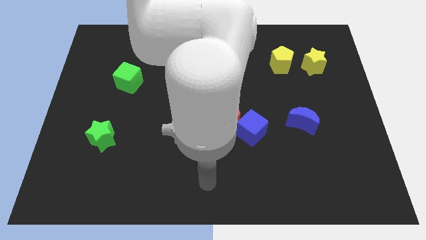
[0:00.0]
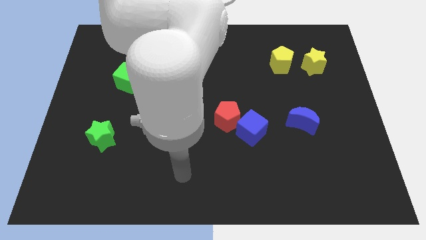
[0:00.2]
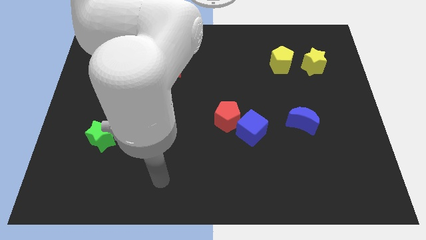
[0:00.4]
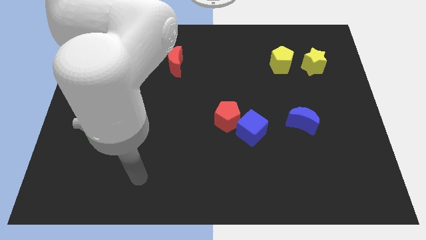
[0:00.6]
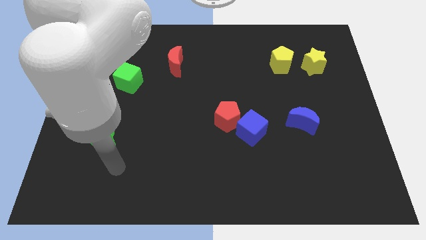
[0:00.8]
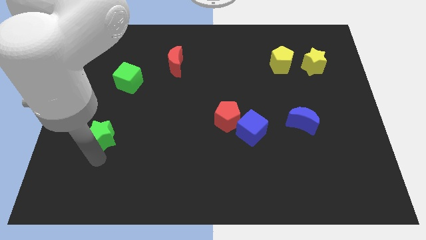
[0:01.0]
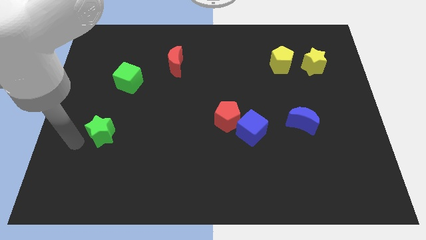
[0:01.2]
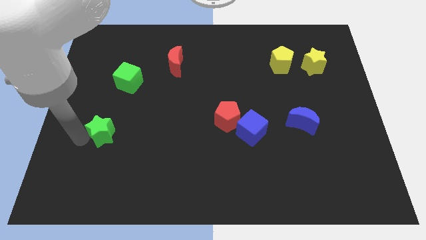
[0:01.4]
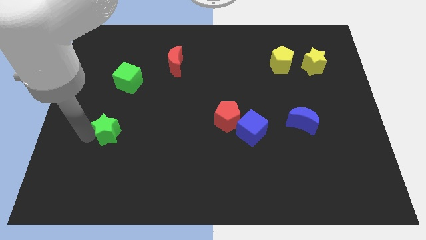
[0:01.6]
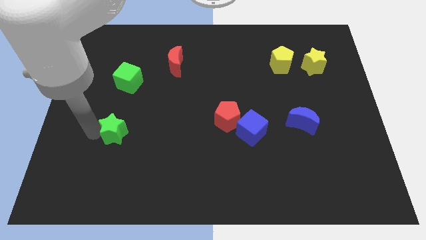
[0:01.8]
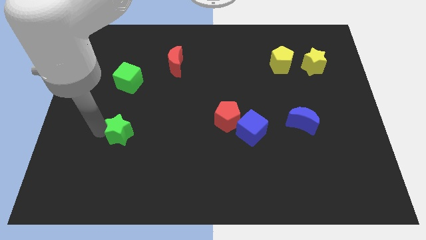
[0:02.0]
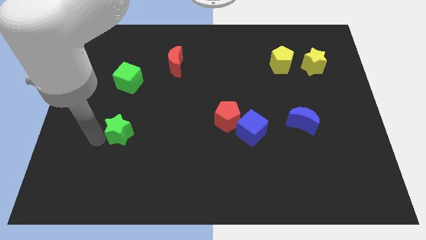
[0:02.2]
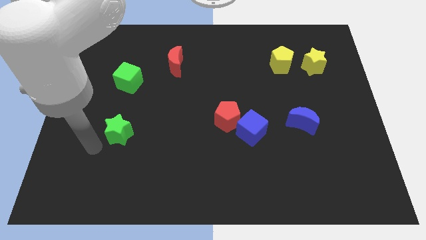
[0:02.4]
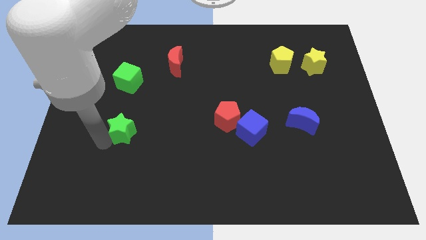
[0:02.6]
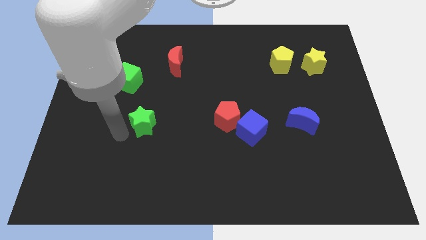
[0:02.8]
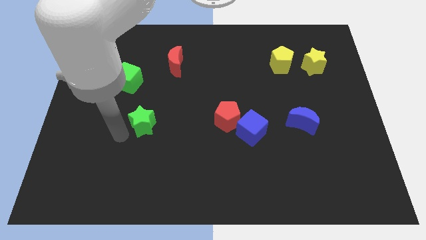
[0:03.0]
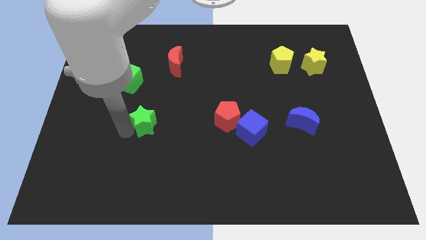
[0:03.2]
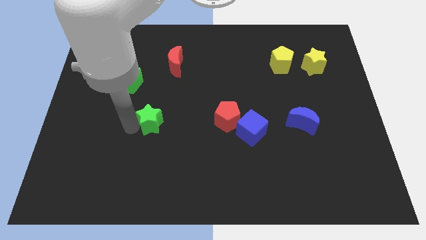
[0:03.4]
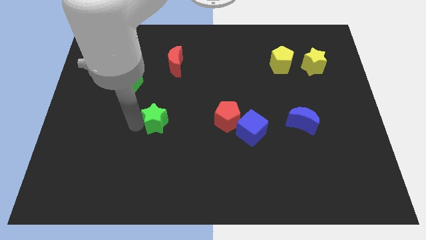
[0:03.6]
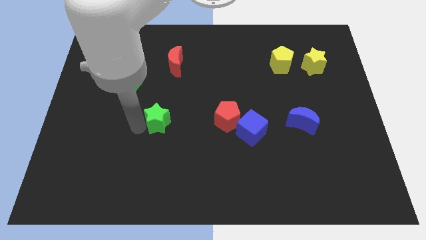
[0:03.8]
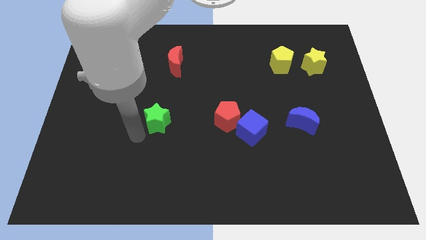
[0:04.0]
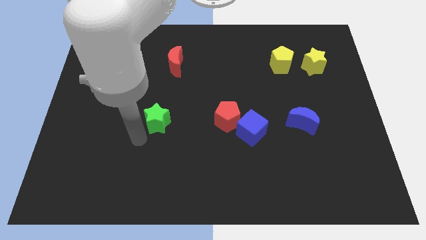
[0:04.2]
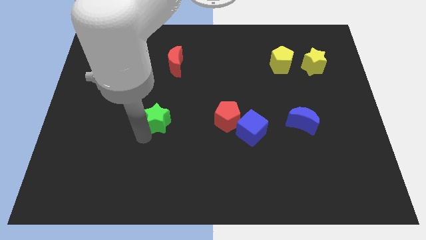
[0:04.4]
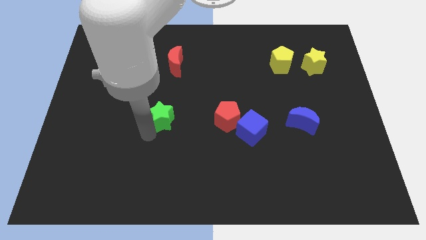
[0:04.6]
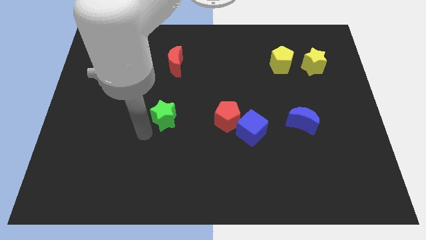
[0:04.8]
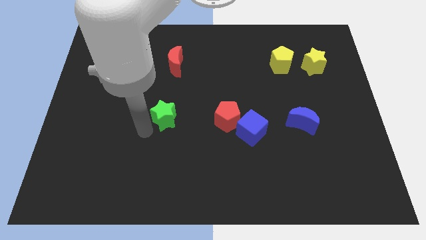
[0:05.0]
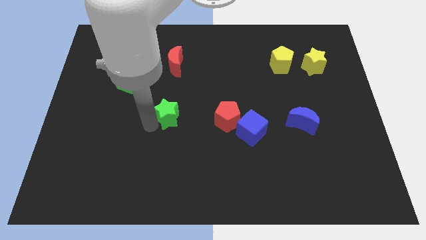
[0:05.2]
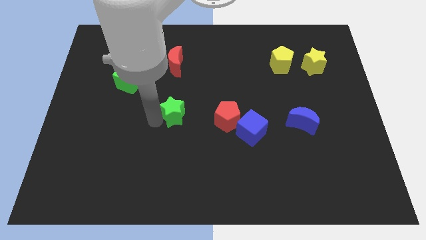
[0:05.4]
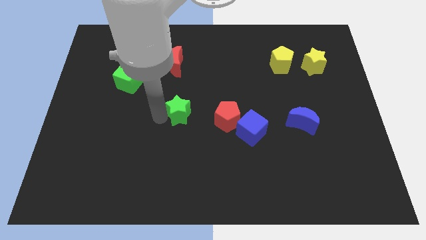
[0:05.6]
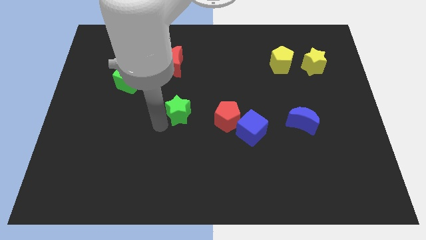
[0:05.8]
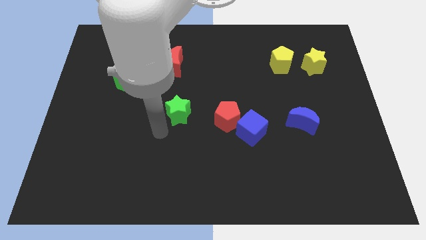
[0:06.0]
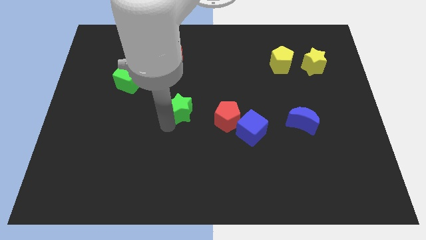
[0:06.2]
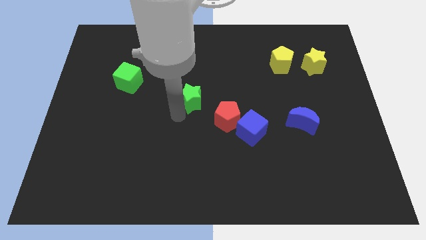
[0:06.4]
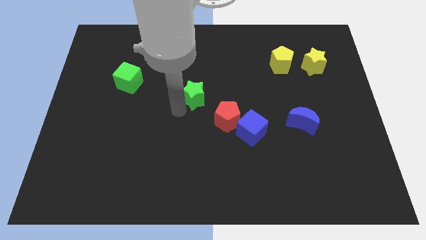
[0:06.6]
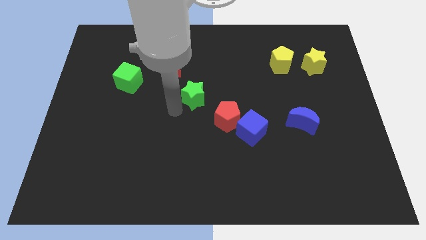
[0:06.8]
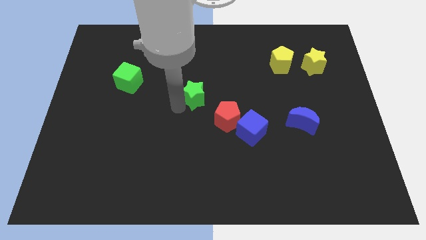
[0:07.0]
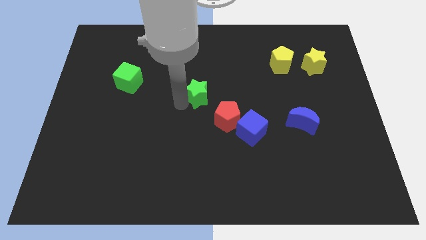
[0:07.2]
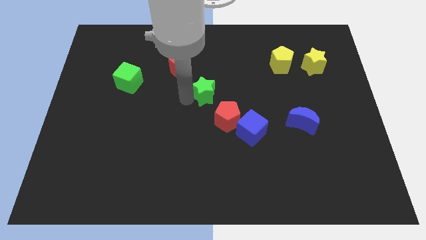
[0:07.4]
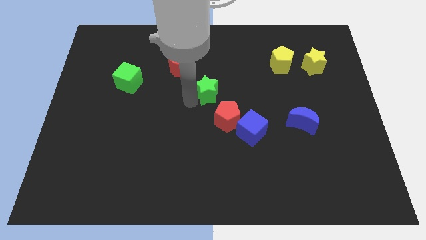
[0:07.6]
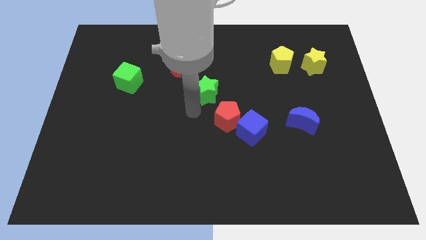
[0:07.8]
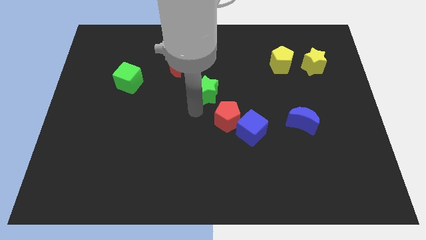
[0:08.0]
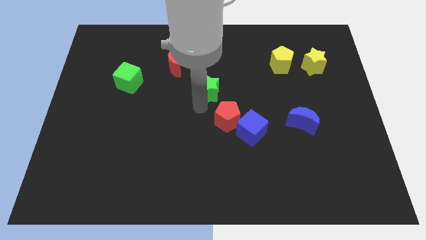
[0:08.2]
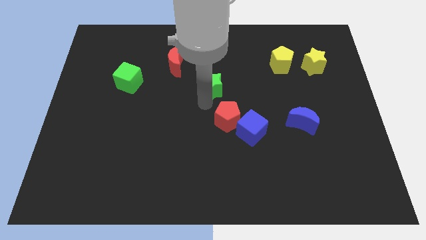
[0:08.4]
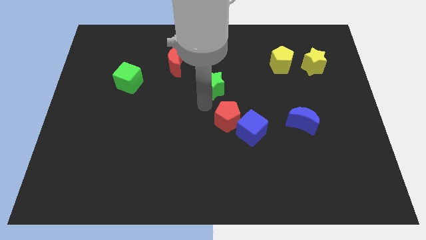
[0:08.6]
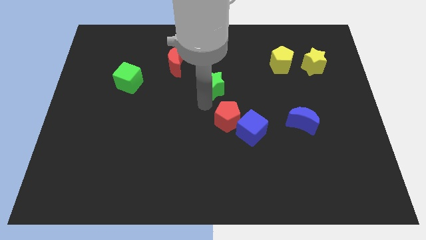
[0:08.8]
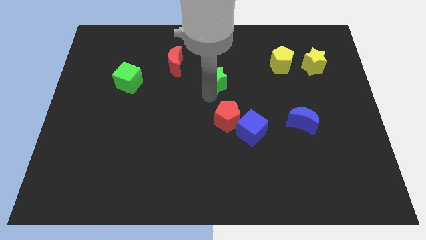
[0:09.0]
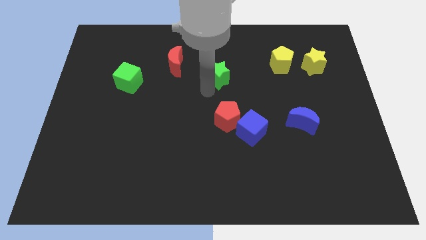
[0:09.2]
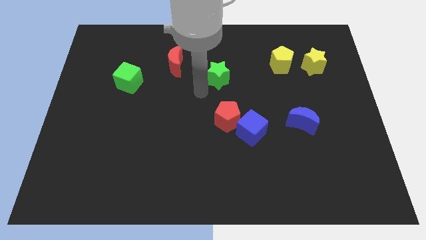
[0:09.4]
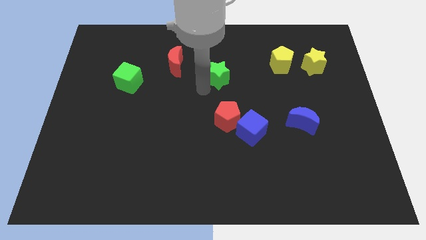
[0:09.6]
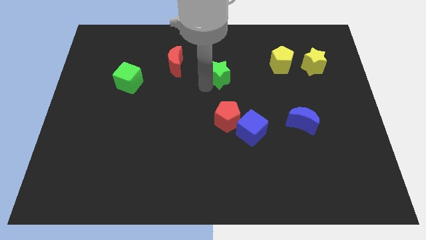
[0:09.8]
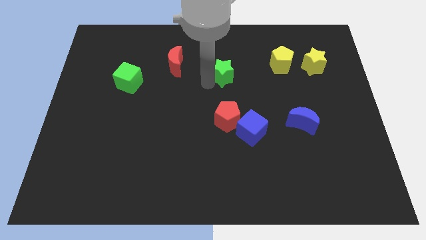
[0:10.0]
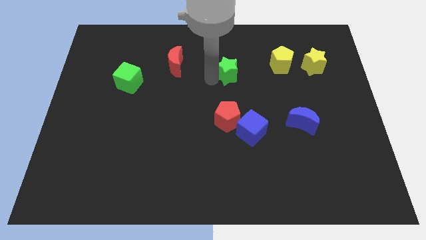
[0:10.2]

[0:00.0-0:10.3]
move the green star just left of the yellow pentagon

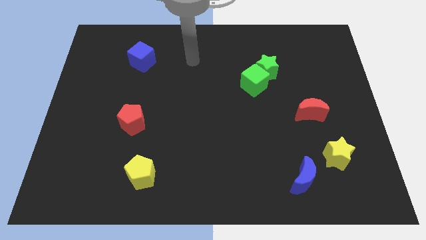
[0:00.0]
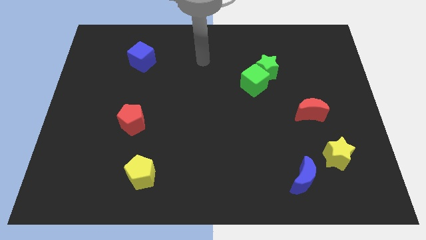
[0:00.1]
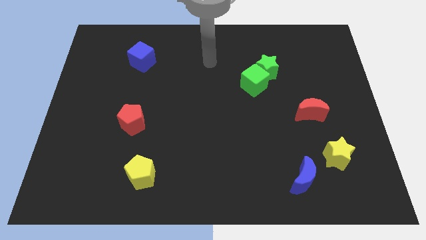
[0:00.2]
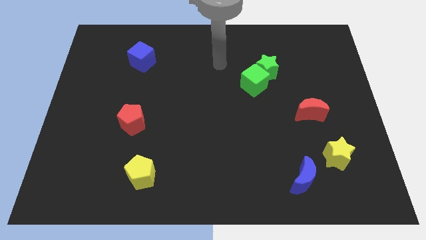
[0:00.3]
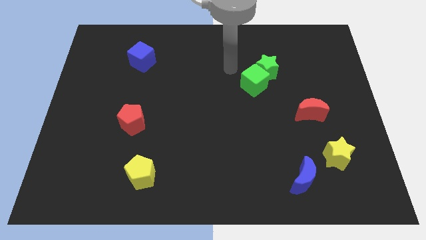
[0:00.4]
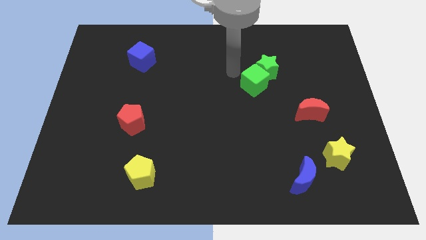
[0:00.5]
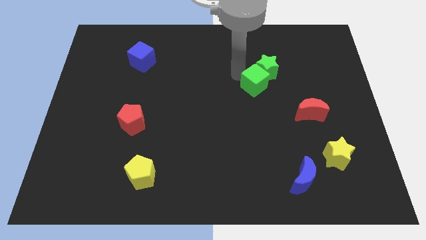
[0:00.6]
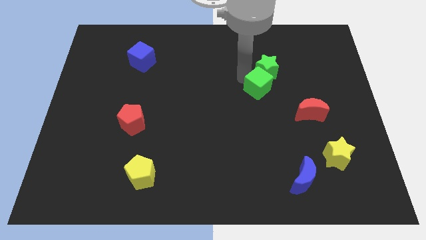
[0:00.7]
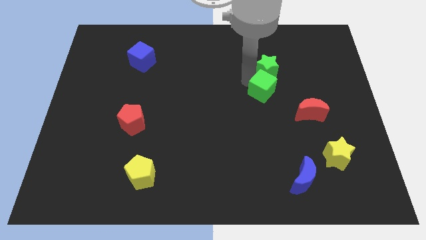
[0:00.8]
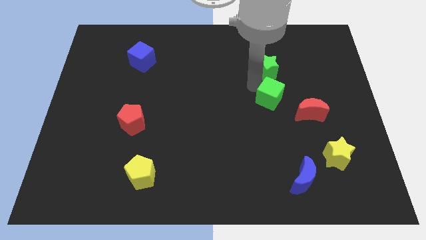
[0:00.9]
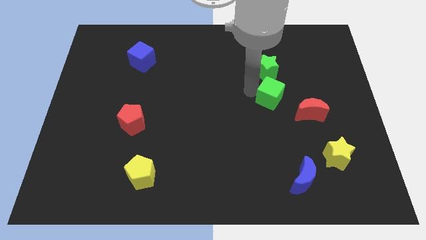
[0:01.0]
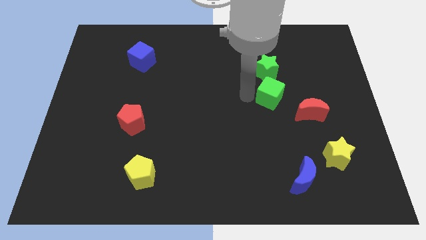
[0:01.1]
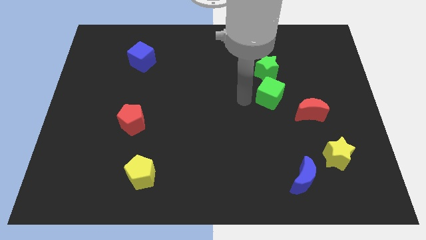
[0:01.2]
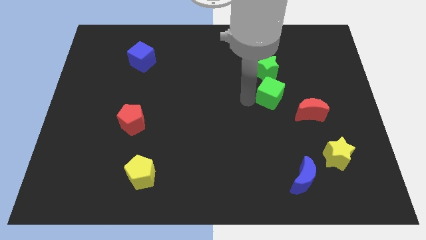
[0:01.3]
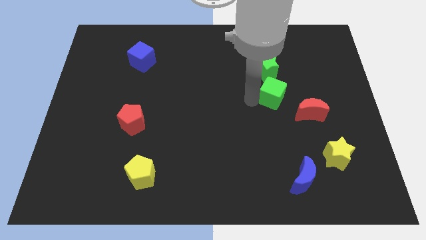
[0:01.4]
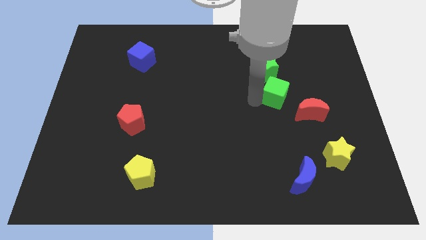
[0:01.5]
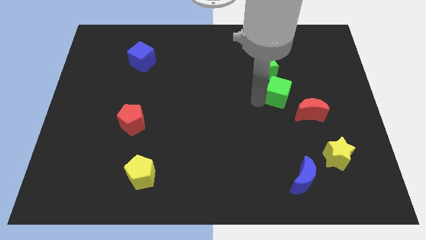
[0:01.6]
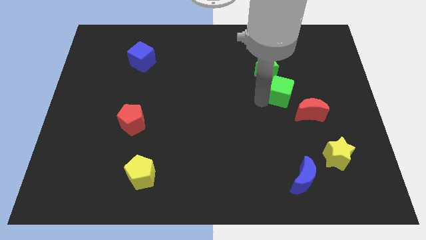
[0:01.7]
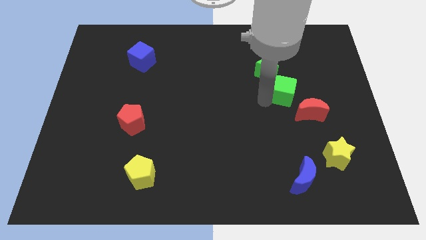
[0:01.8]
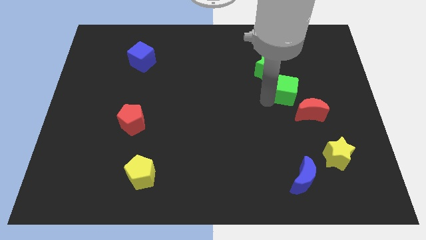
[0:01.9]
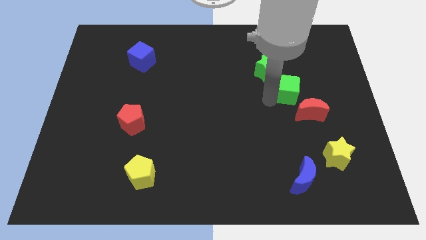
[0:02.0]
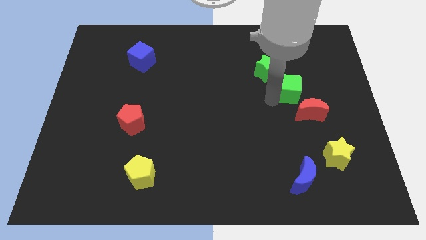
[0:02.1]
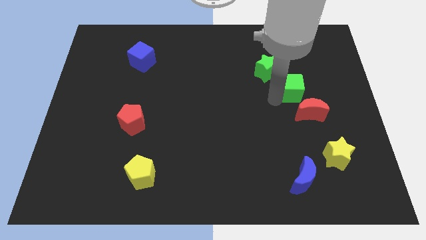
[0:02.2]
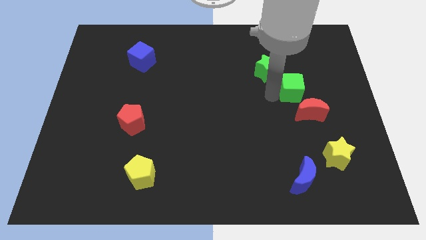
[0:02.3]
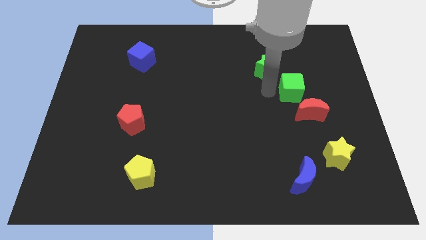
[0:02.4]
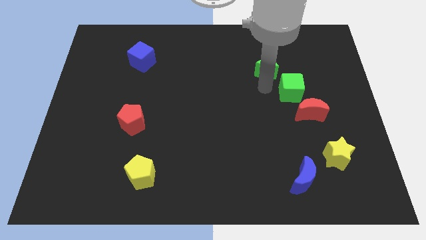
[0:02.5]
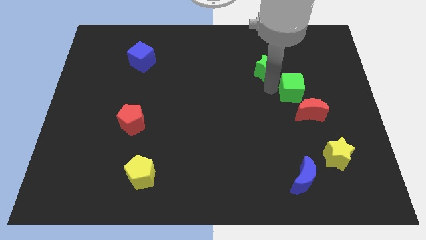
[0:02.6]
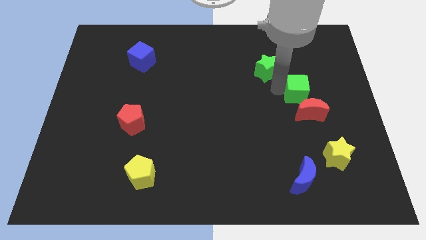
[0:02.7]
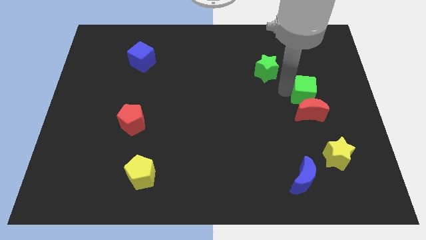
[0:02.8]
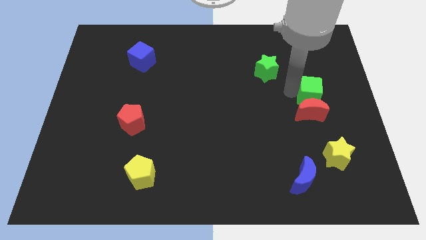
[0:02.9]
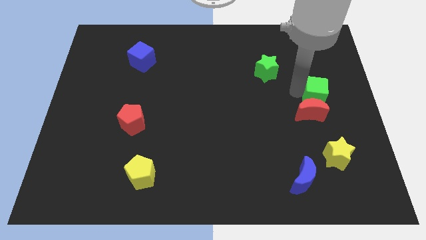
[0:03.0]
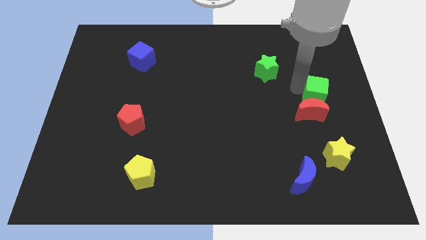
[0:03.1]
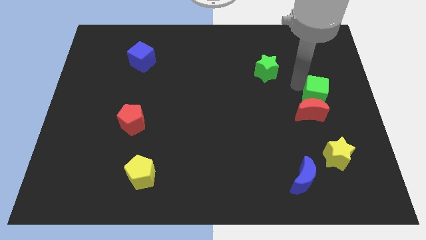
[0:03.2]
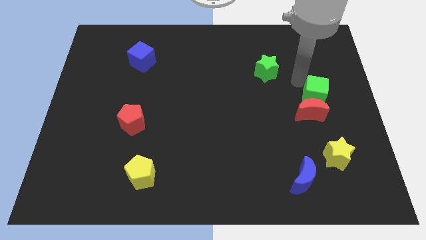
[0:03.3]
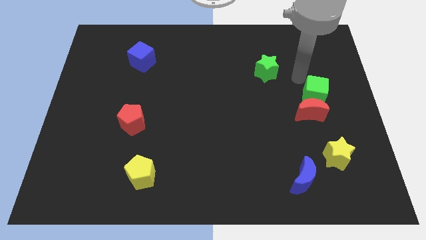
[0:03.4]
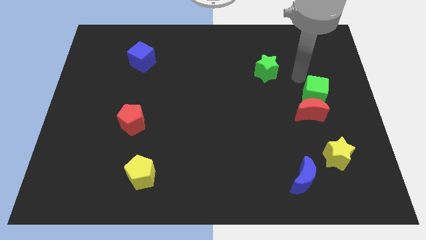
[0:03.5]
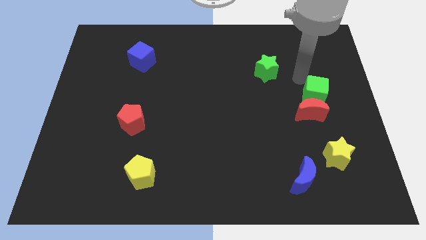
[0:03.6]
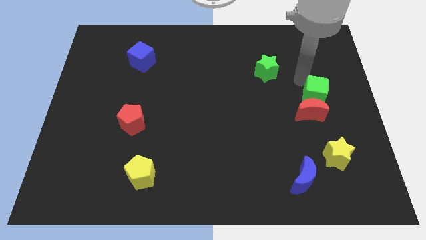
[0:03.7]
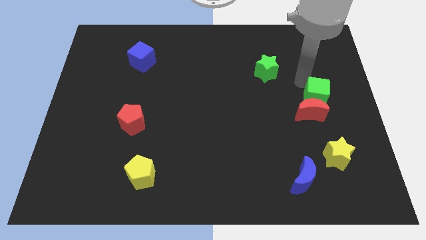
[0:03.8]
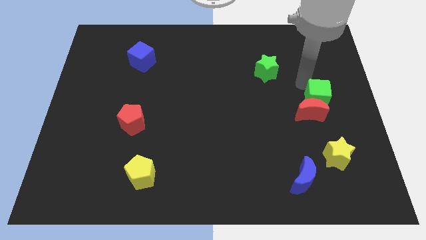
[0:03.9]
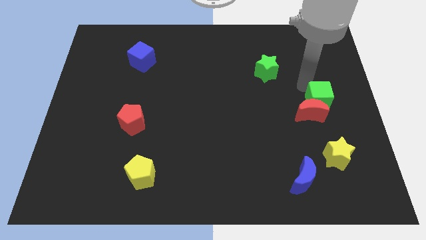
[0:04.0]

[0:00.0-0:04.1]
slide the green cube to the top of the yellow star
